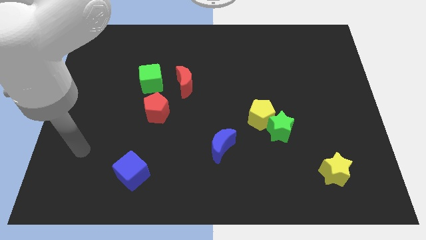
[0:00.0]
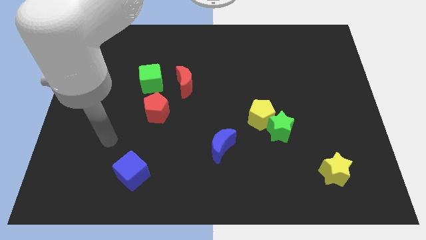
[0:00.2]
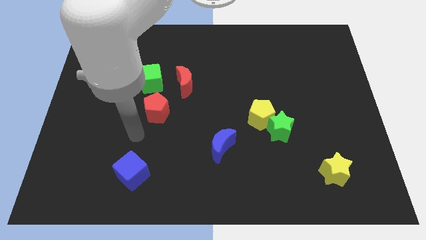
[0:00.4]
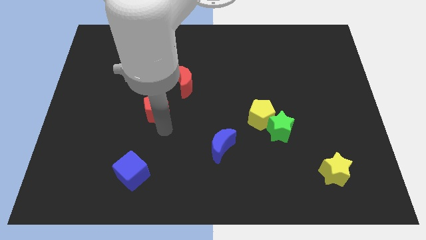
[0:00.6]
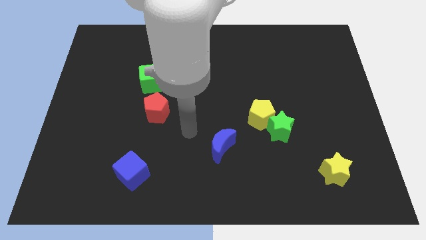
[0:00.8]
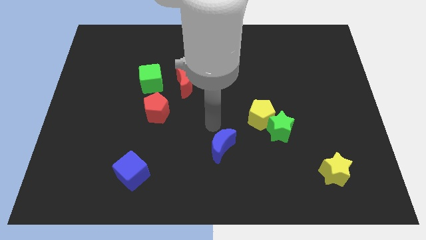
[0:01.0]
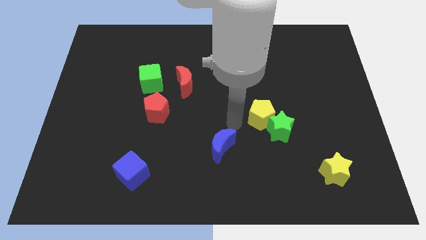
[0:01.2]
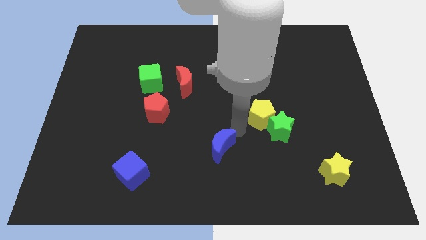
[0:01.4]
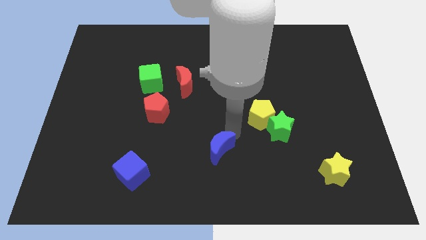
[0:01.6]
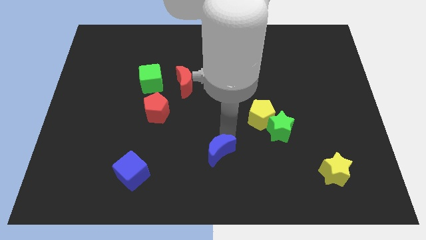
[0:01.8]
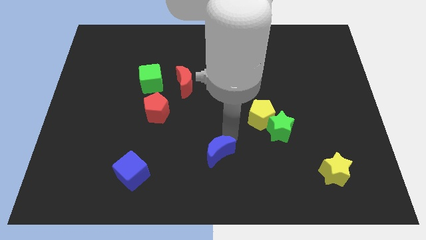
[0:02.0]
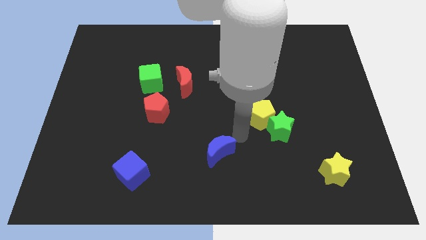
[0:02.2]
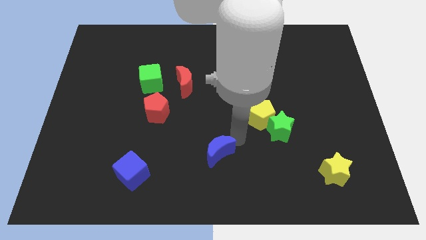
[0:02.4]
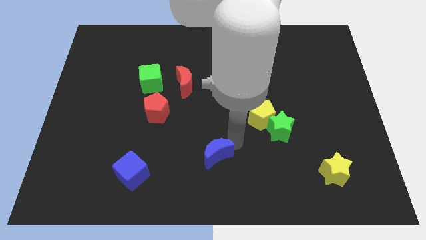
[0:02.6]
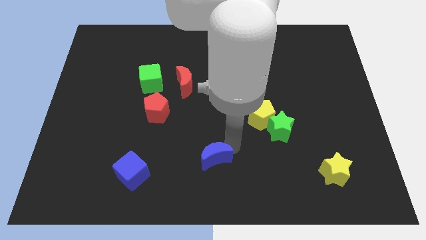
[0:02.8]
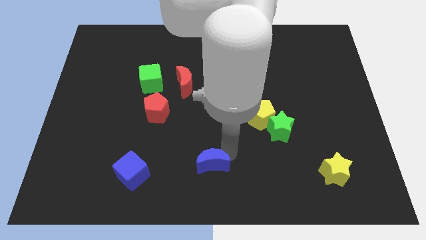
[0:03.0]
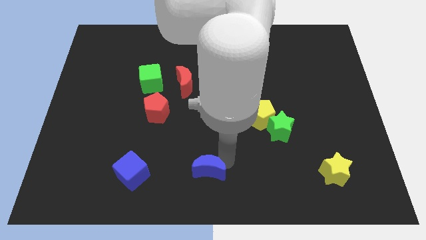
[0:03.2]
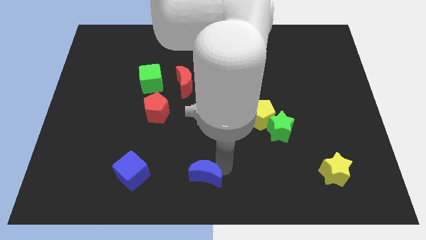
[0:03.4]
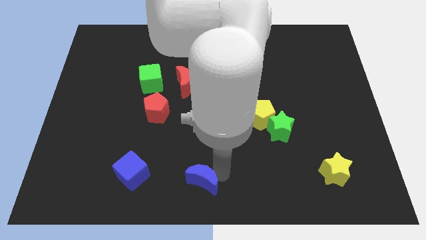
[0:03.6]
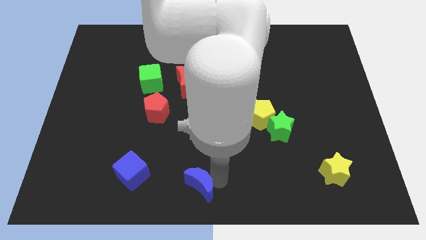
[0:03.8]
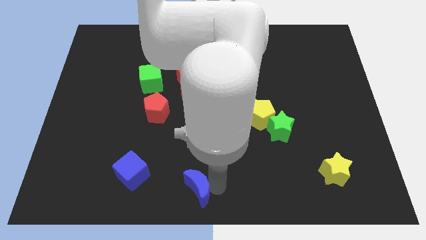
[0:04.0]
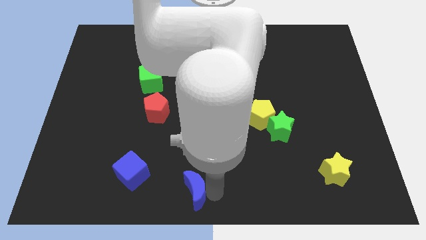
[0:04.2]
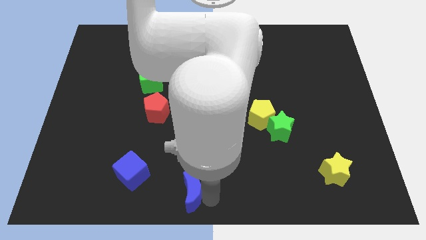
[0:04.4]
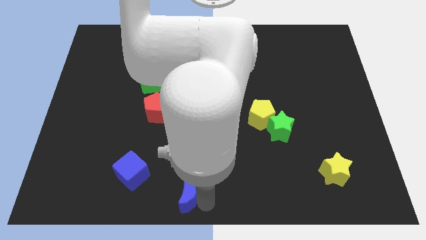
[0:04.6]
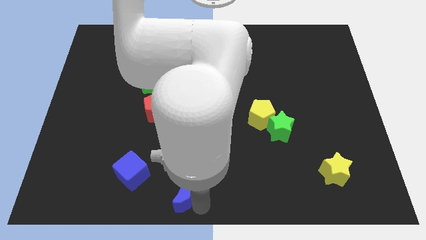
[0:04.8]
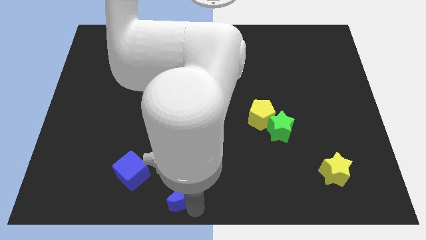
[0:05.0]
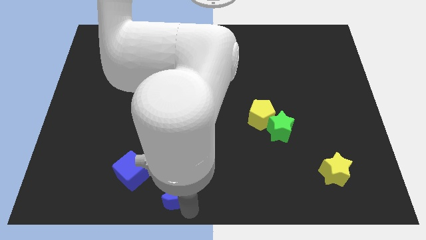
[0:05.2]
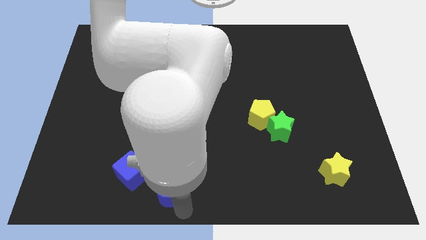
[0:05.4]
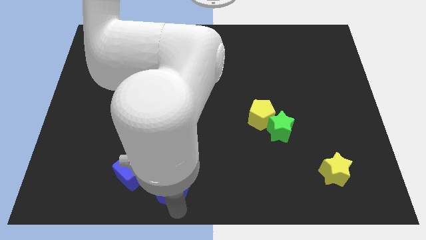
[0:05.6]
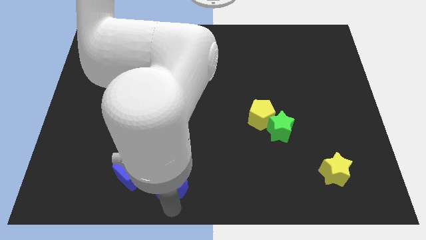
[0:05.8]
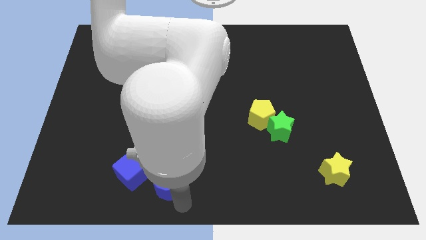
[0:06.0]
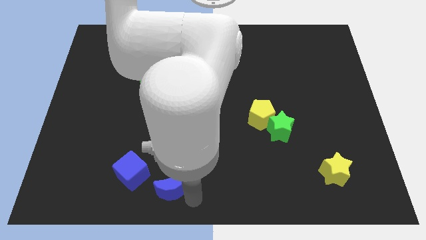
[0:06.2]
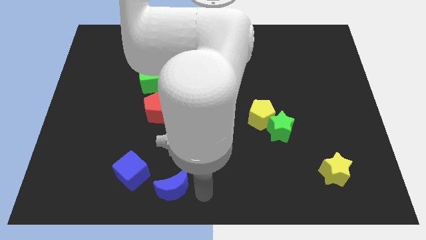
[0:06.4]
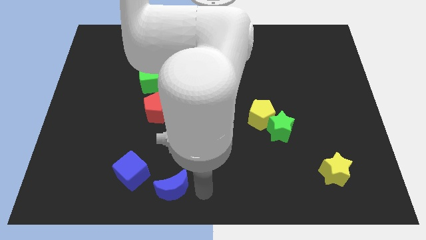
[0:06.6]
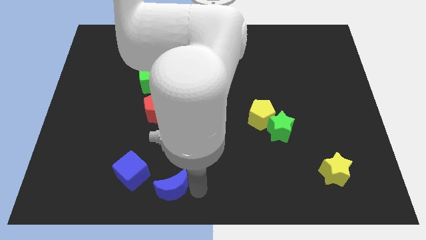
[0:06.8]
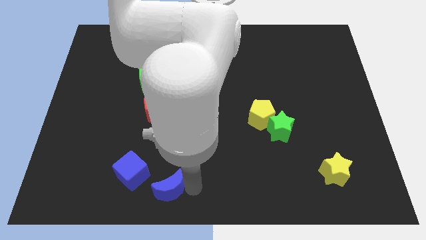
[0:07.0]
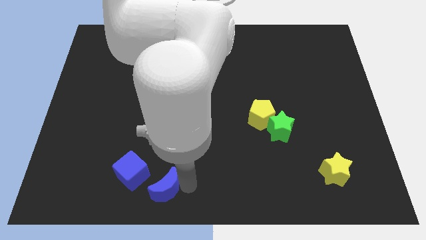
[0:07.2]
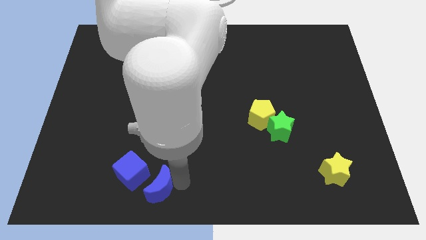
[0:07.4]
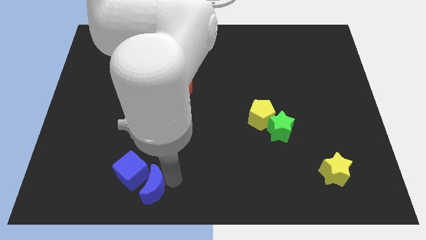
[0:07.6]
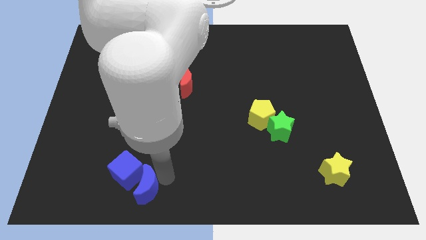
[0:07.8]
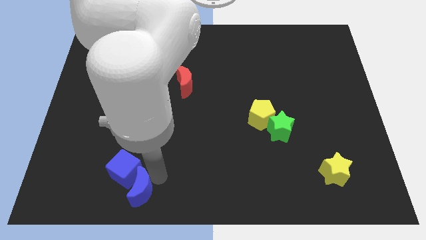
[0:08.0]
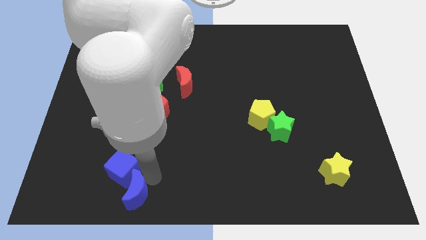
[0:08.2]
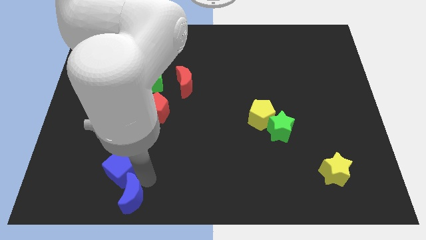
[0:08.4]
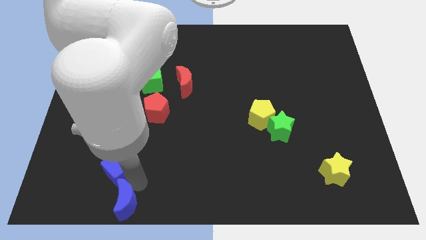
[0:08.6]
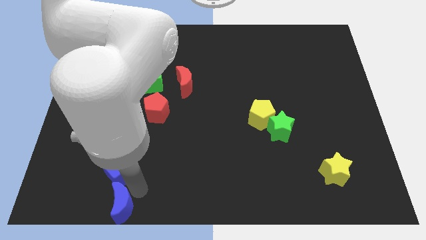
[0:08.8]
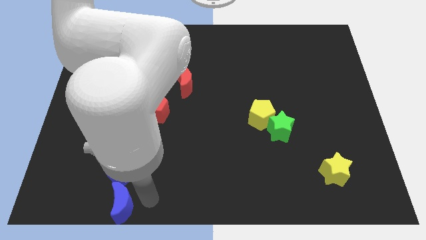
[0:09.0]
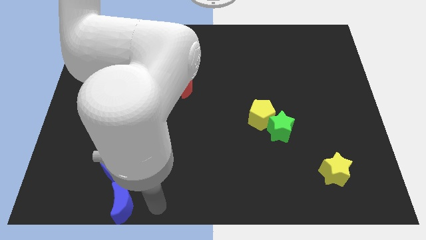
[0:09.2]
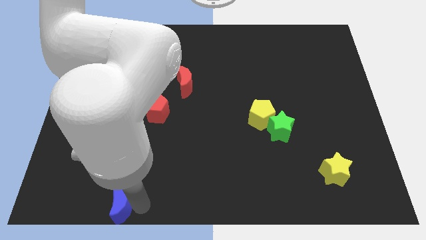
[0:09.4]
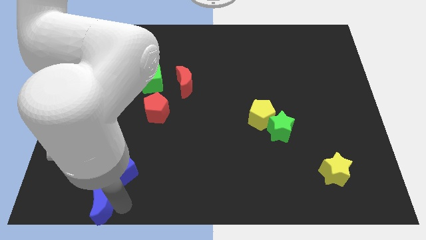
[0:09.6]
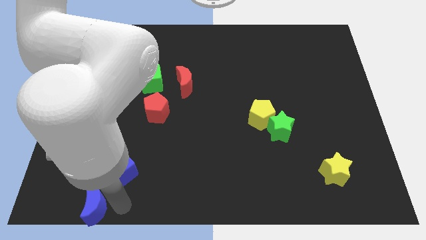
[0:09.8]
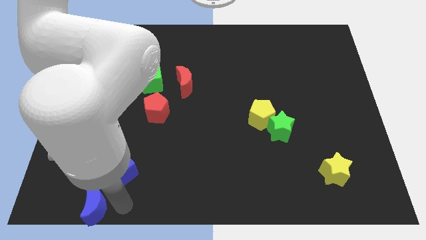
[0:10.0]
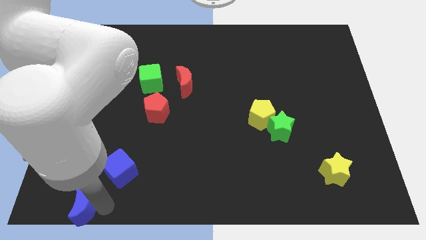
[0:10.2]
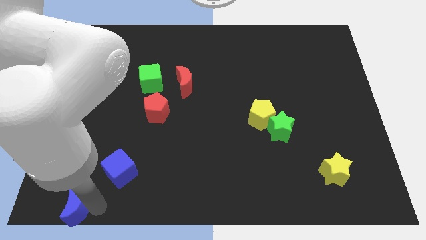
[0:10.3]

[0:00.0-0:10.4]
push the blue moon to the bottom left corner

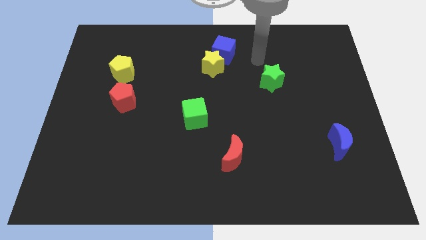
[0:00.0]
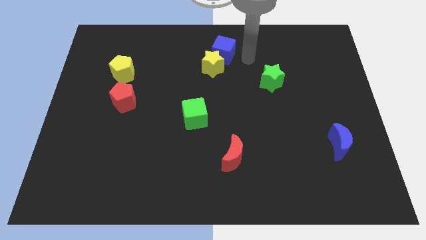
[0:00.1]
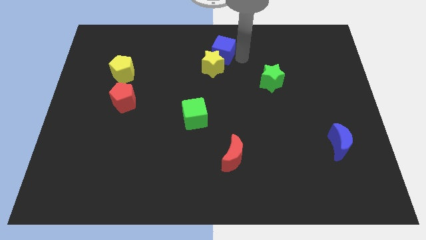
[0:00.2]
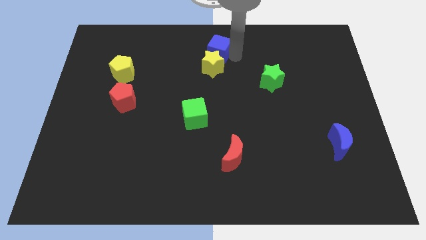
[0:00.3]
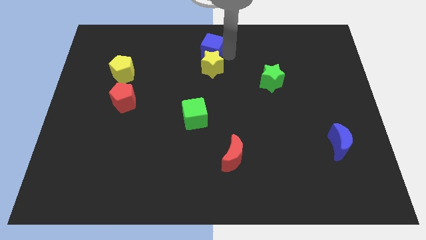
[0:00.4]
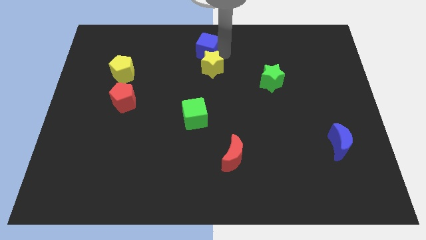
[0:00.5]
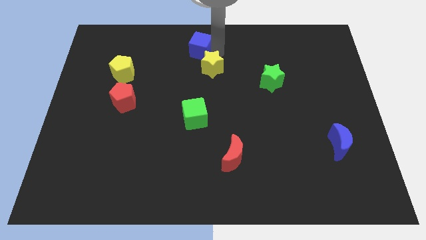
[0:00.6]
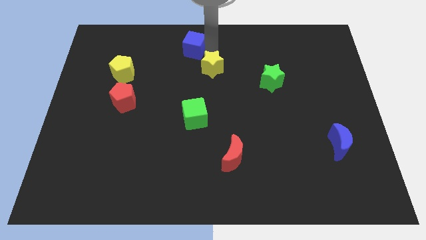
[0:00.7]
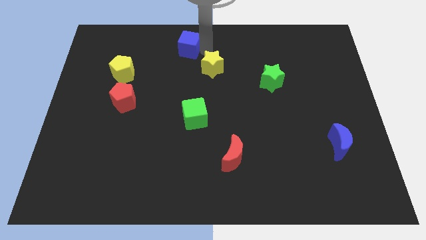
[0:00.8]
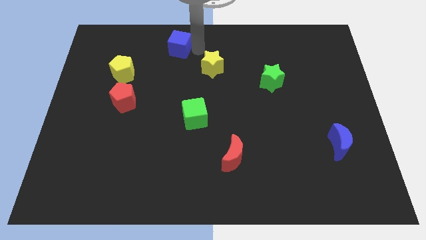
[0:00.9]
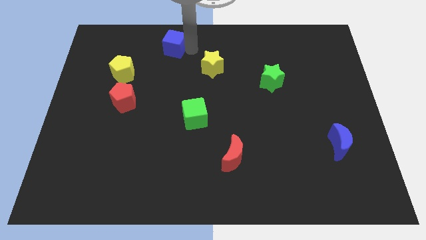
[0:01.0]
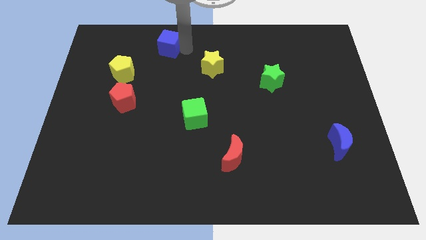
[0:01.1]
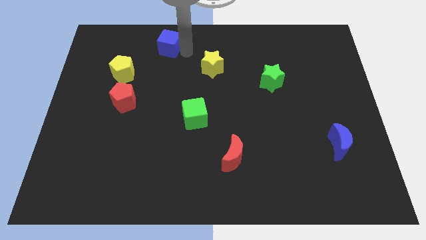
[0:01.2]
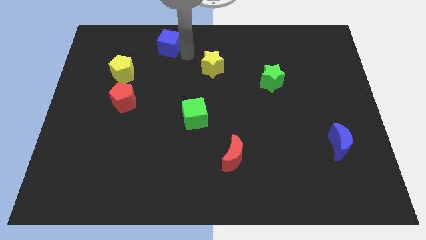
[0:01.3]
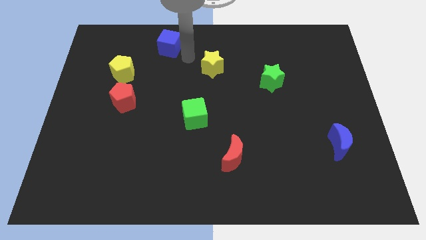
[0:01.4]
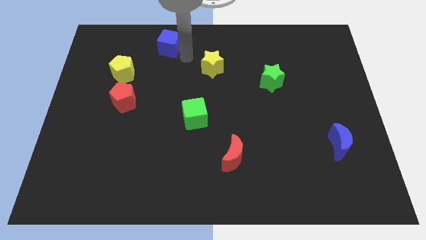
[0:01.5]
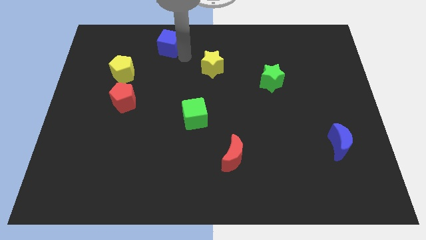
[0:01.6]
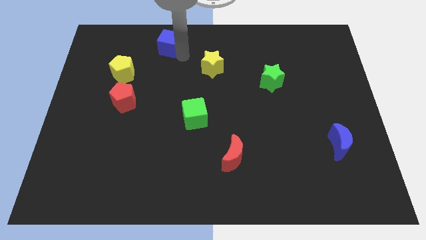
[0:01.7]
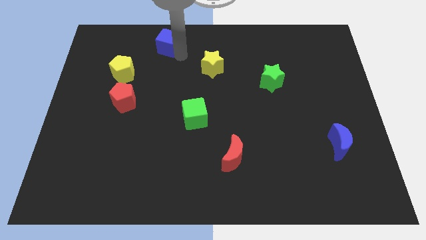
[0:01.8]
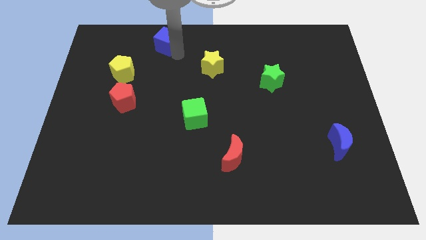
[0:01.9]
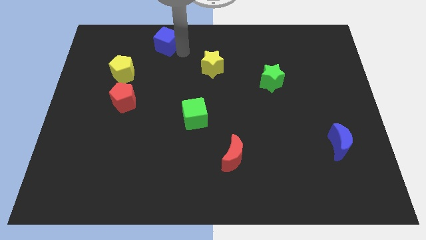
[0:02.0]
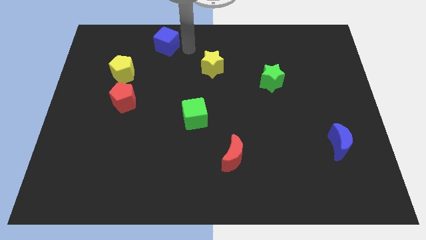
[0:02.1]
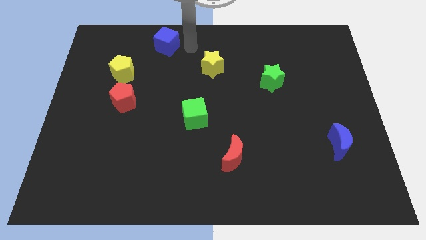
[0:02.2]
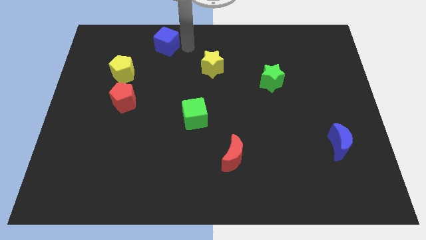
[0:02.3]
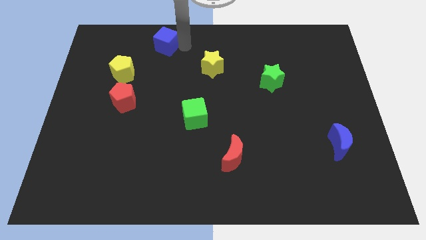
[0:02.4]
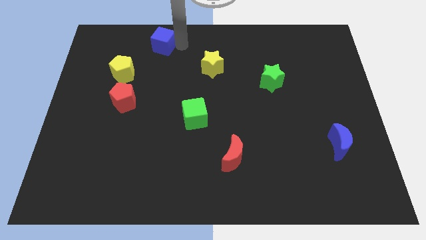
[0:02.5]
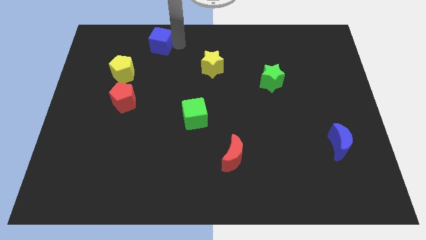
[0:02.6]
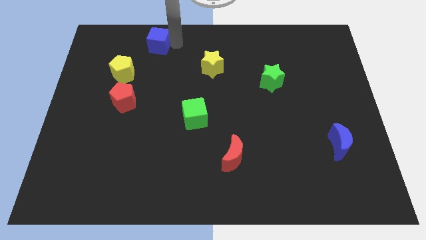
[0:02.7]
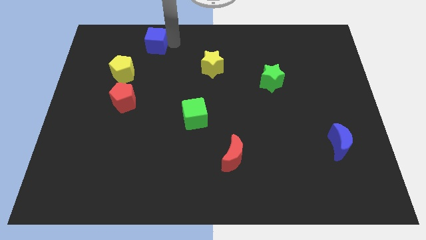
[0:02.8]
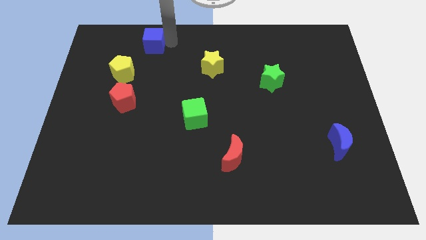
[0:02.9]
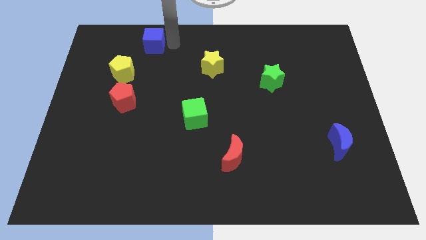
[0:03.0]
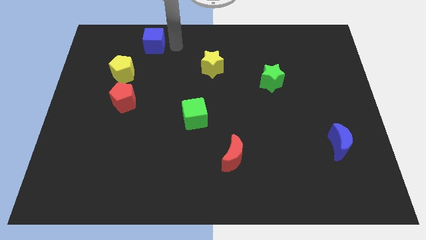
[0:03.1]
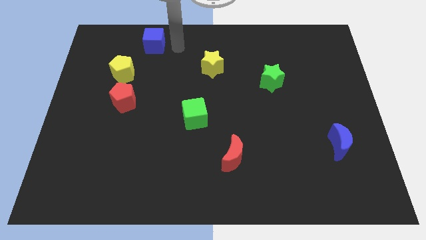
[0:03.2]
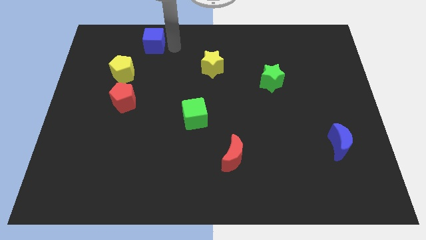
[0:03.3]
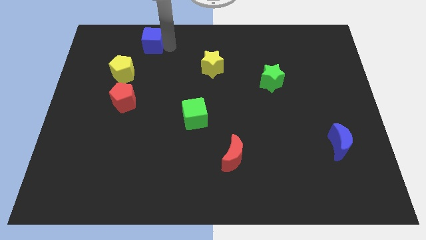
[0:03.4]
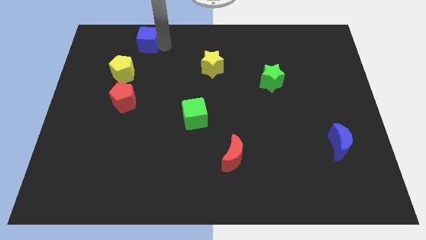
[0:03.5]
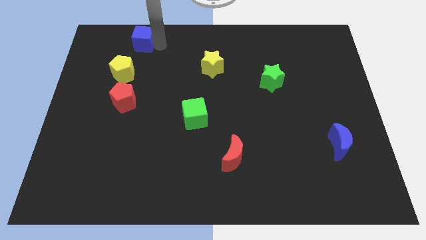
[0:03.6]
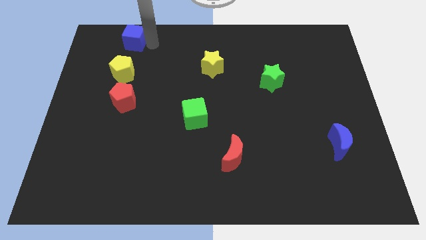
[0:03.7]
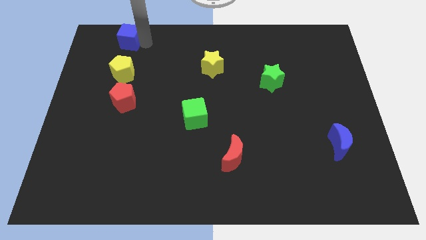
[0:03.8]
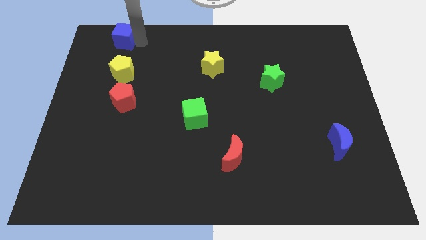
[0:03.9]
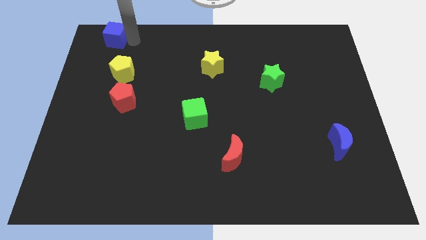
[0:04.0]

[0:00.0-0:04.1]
slide the blue cube to the top left of the board
